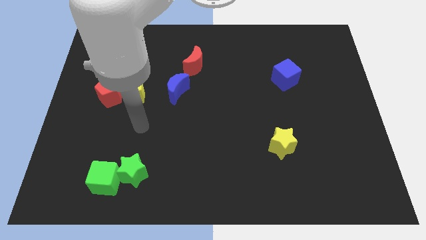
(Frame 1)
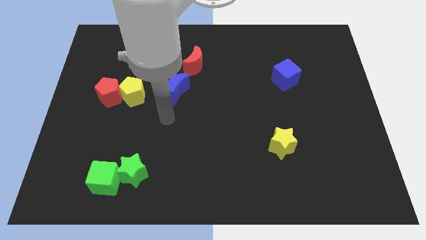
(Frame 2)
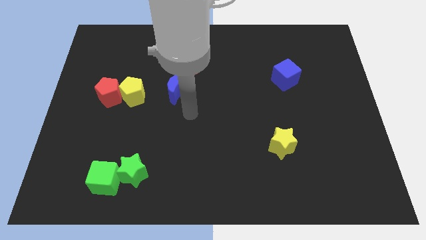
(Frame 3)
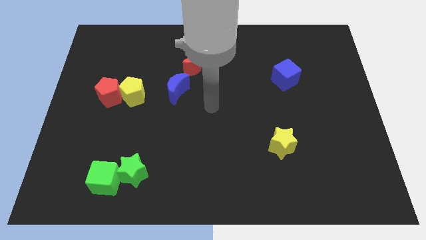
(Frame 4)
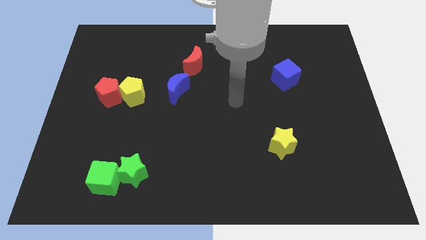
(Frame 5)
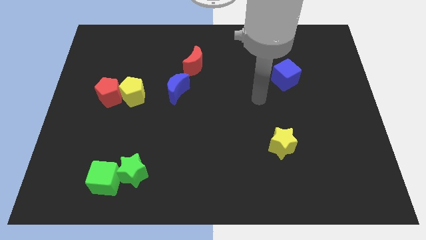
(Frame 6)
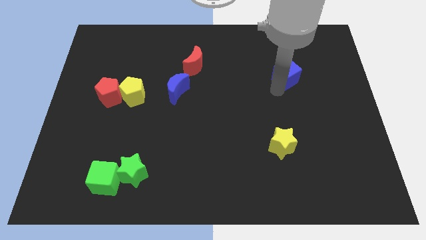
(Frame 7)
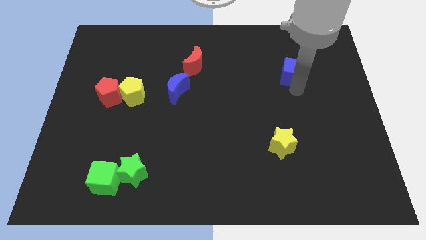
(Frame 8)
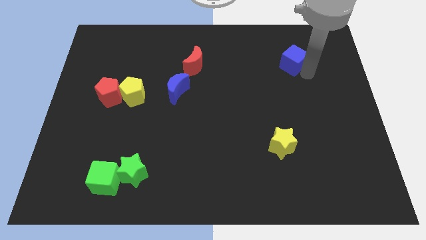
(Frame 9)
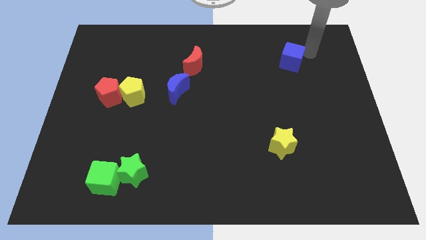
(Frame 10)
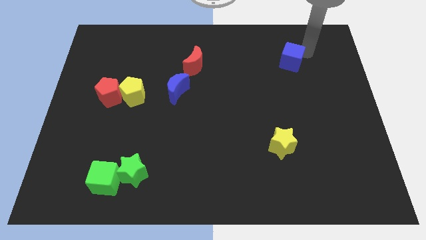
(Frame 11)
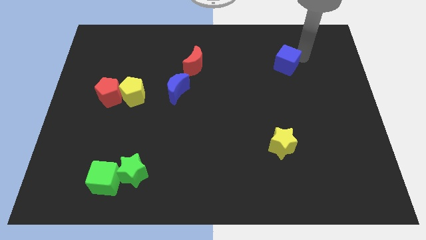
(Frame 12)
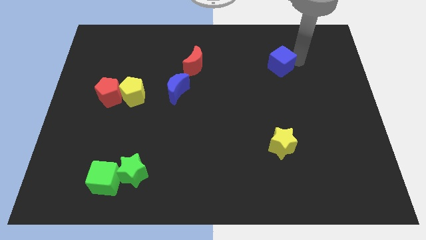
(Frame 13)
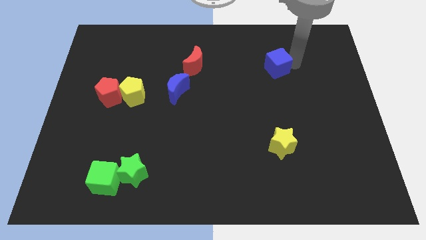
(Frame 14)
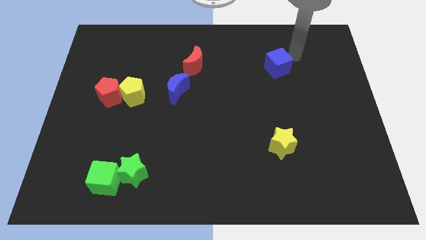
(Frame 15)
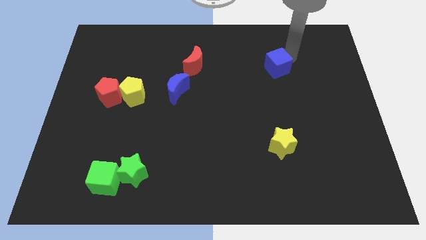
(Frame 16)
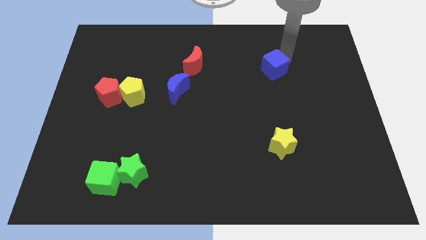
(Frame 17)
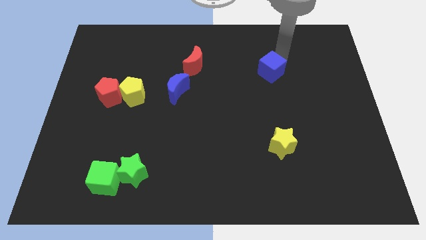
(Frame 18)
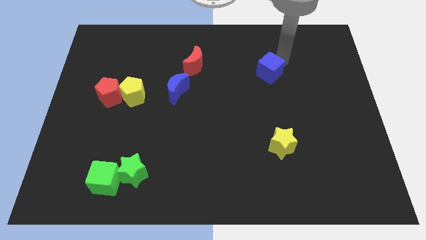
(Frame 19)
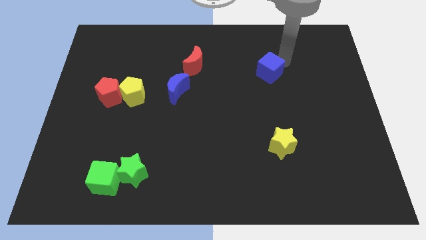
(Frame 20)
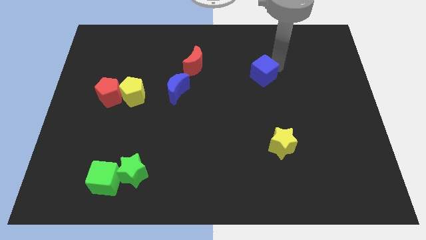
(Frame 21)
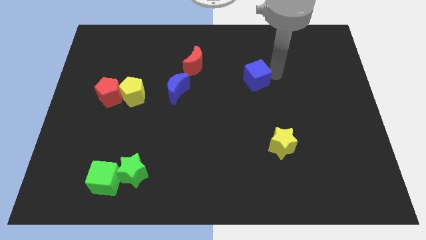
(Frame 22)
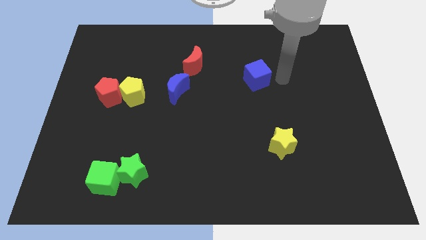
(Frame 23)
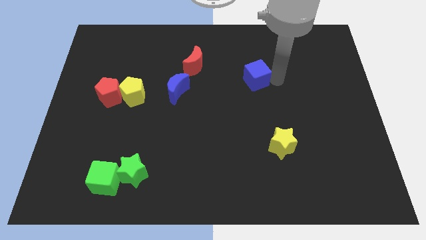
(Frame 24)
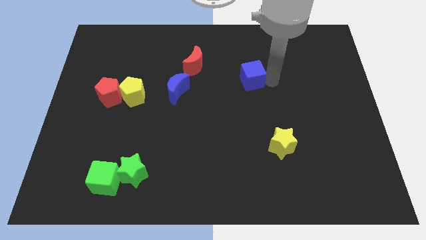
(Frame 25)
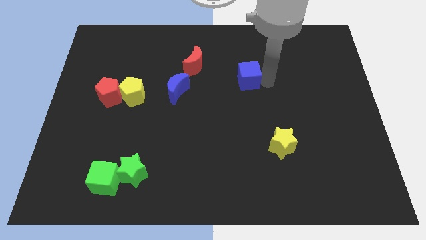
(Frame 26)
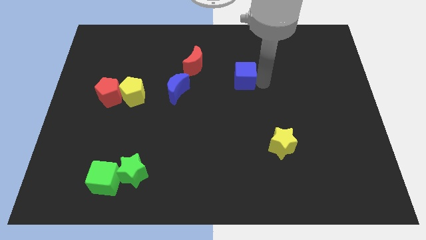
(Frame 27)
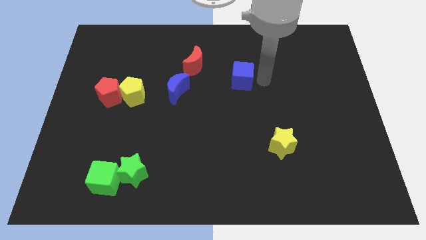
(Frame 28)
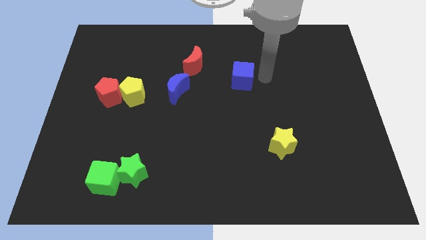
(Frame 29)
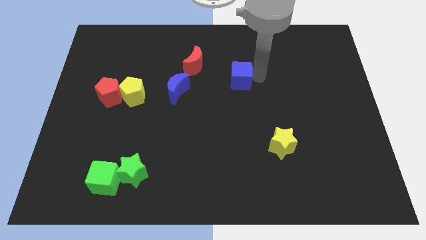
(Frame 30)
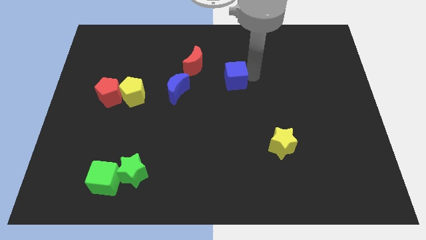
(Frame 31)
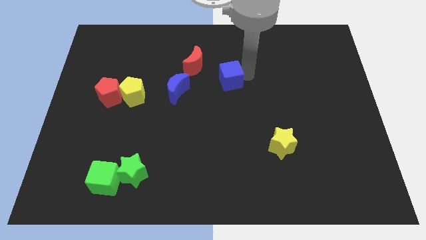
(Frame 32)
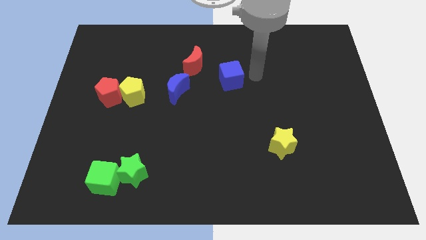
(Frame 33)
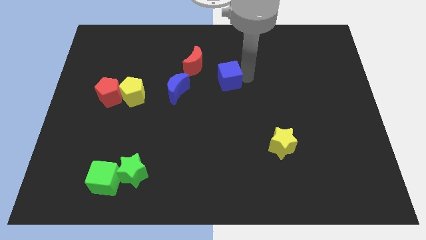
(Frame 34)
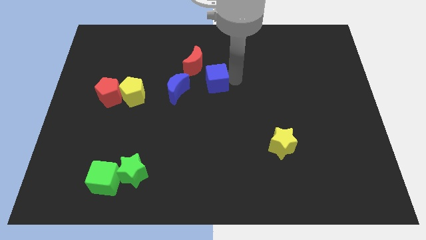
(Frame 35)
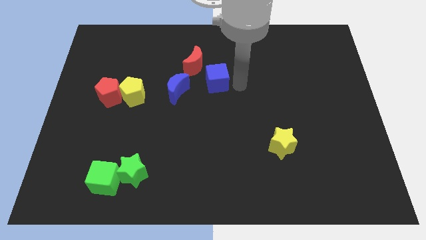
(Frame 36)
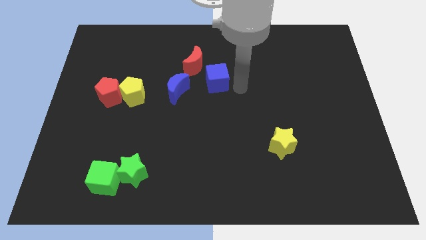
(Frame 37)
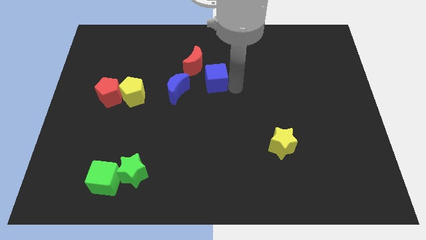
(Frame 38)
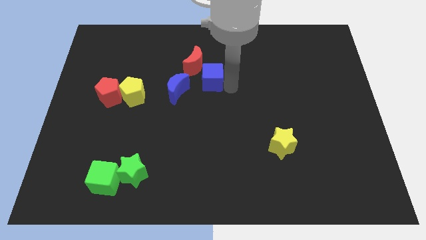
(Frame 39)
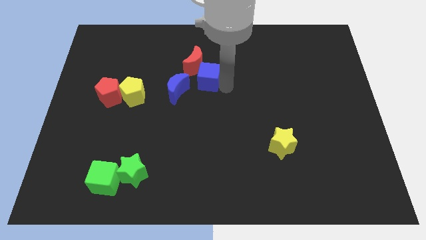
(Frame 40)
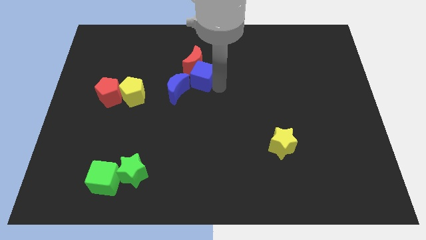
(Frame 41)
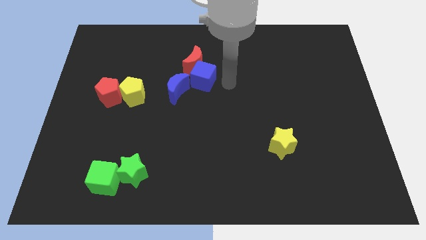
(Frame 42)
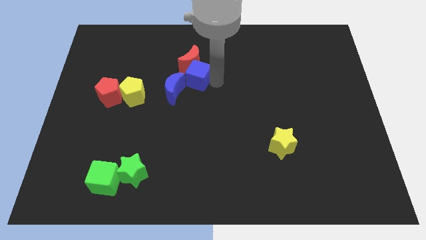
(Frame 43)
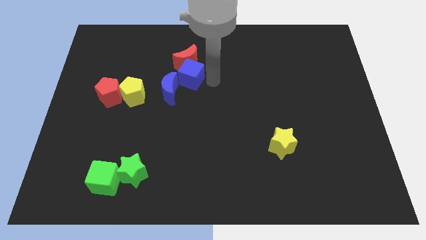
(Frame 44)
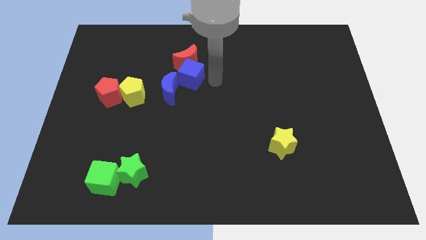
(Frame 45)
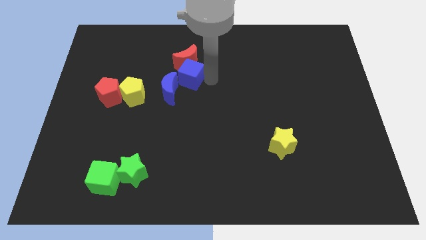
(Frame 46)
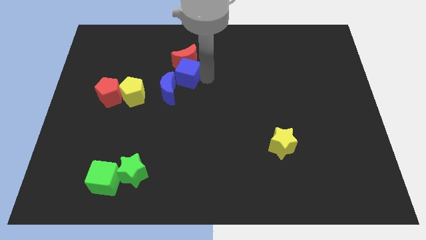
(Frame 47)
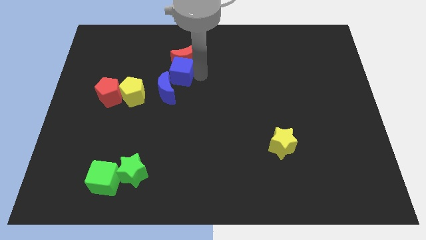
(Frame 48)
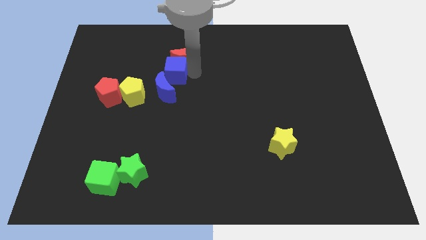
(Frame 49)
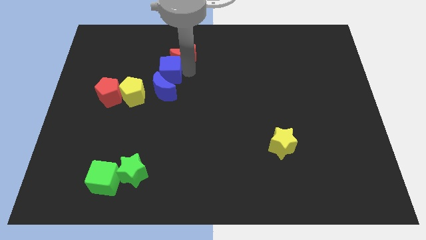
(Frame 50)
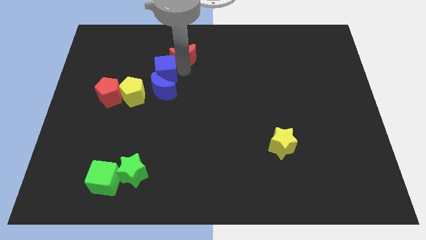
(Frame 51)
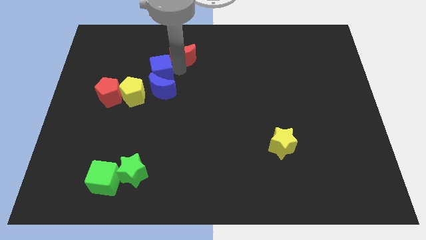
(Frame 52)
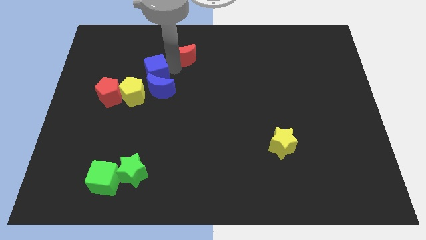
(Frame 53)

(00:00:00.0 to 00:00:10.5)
slide the blue cube diagonally up and to the right of the red pentagon

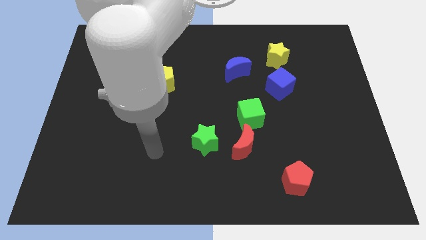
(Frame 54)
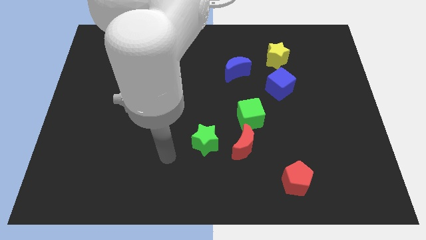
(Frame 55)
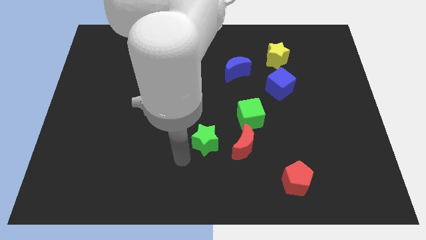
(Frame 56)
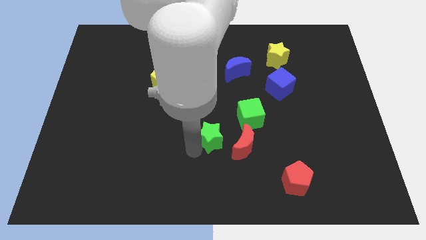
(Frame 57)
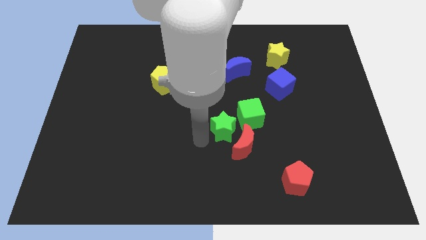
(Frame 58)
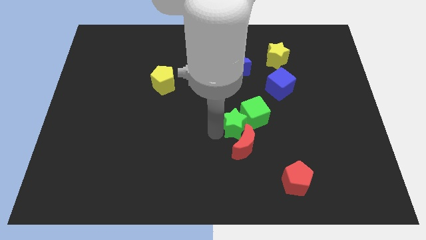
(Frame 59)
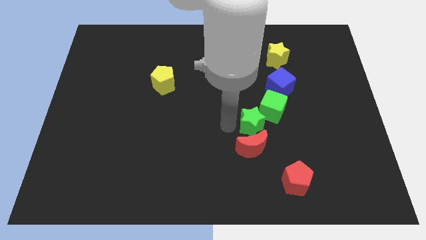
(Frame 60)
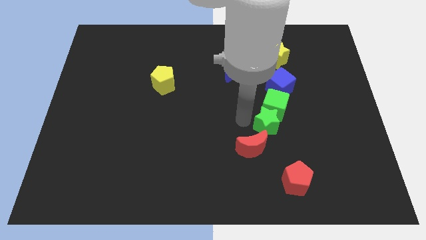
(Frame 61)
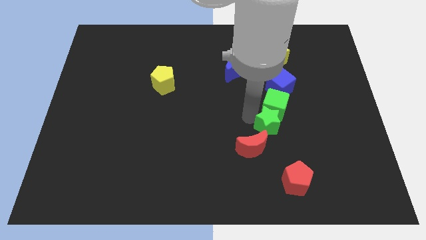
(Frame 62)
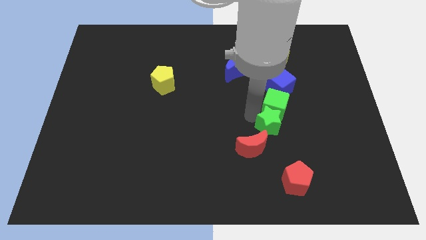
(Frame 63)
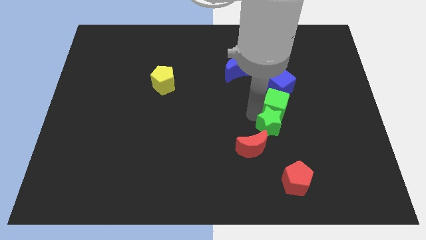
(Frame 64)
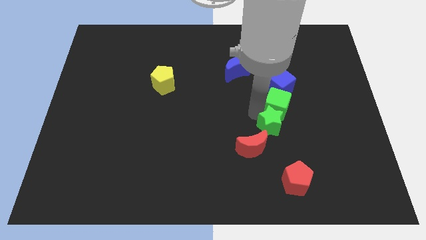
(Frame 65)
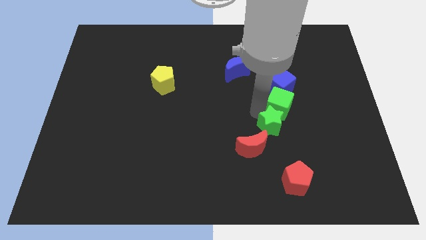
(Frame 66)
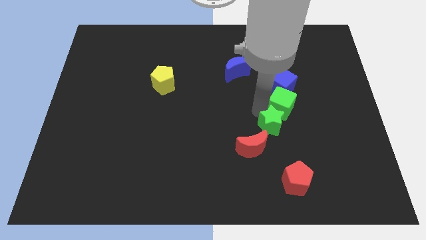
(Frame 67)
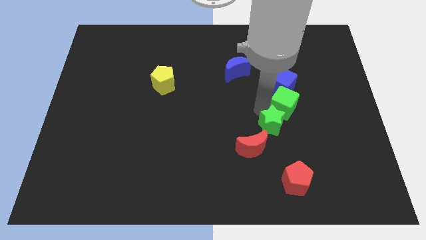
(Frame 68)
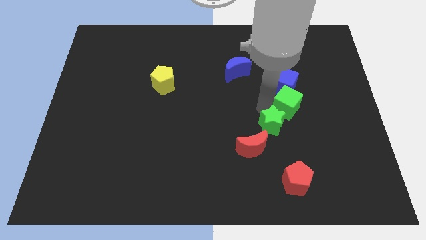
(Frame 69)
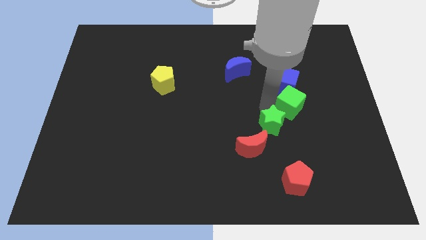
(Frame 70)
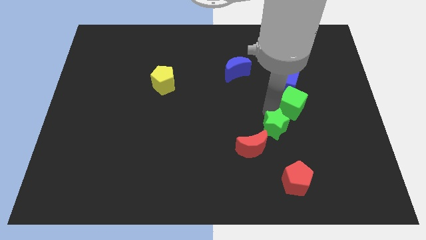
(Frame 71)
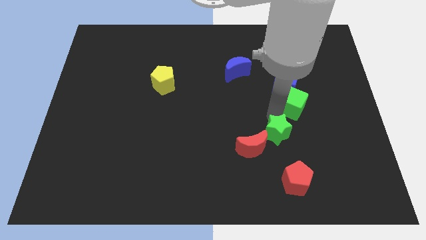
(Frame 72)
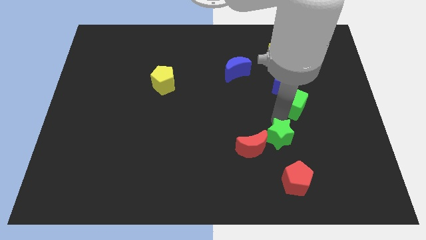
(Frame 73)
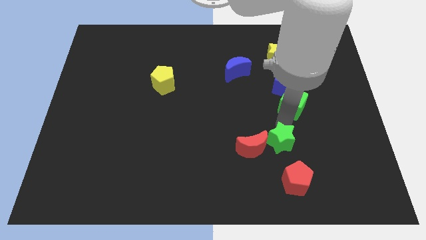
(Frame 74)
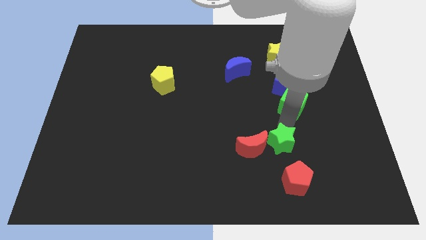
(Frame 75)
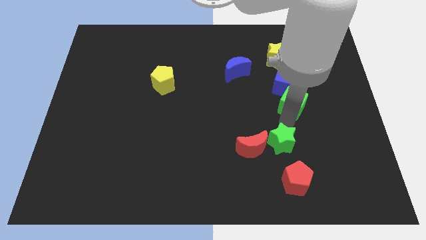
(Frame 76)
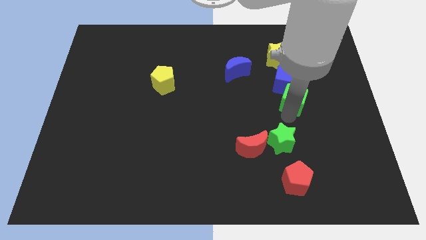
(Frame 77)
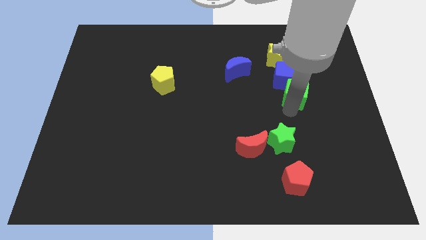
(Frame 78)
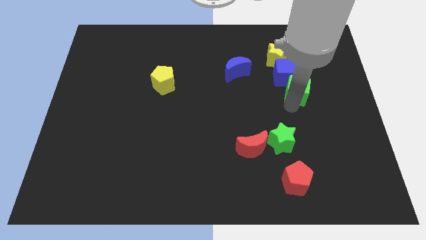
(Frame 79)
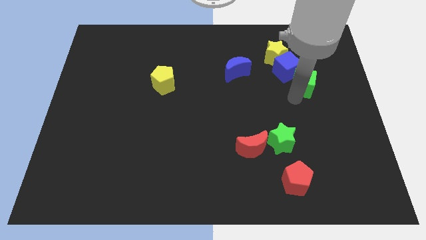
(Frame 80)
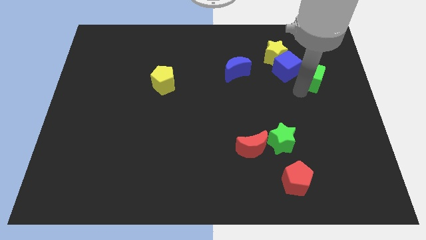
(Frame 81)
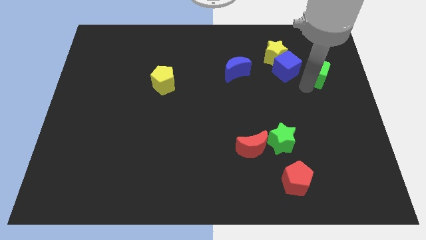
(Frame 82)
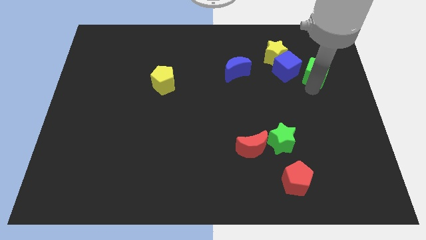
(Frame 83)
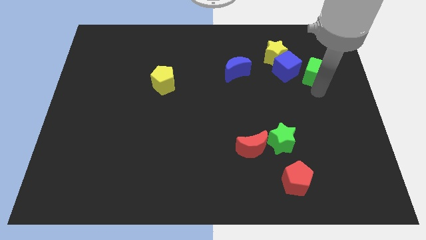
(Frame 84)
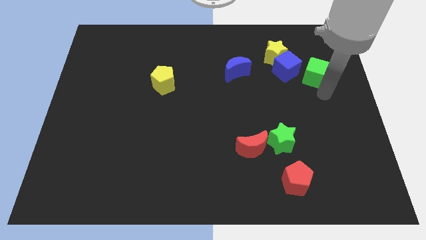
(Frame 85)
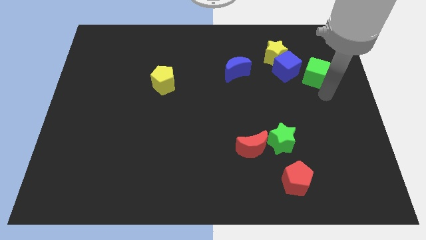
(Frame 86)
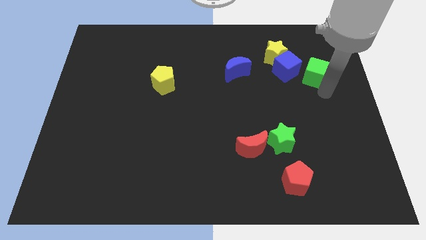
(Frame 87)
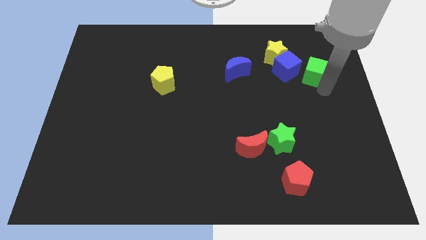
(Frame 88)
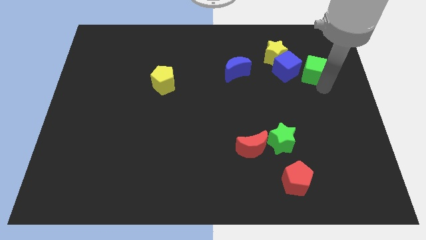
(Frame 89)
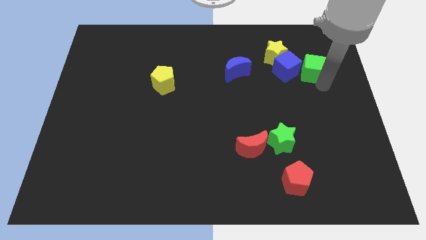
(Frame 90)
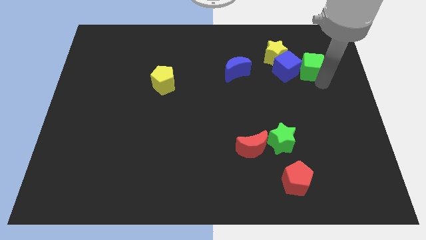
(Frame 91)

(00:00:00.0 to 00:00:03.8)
slide the green cube diagonally up and to the right of the blue cube
